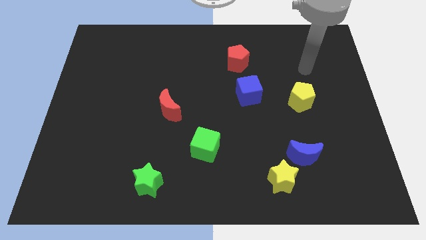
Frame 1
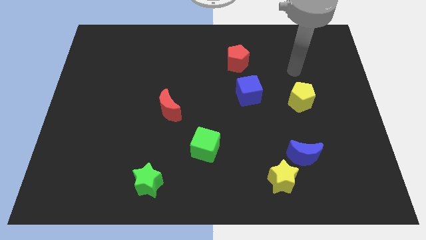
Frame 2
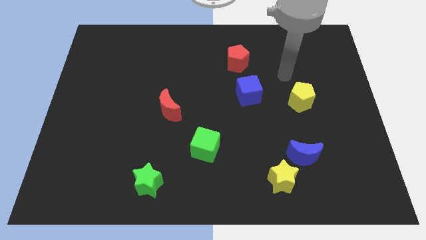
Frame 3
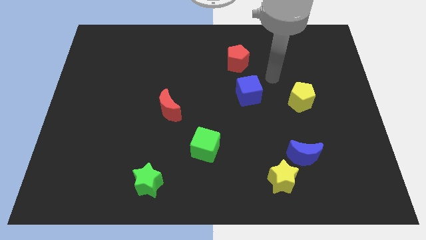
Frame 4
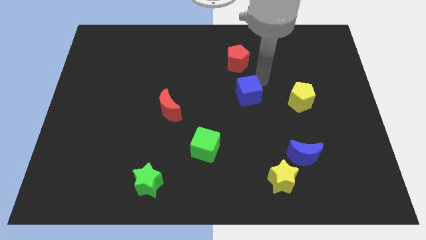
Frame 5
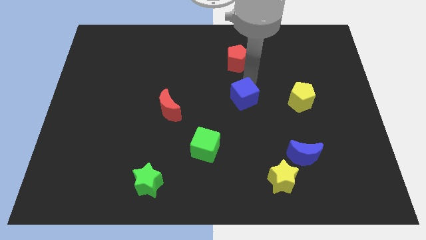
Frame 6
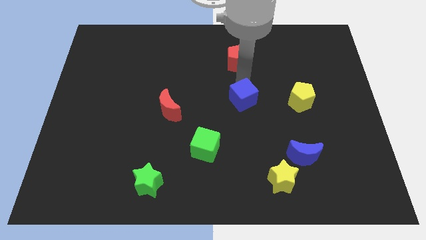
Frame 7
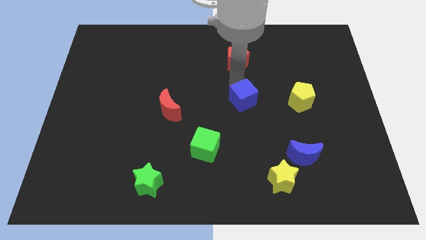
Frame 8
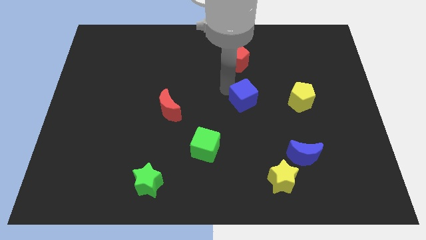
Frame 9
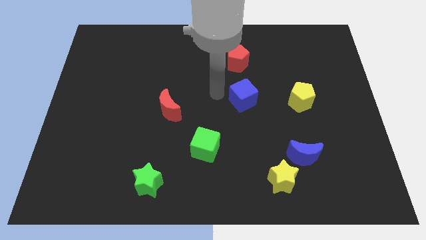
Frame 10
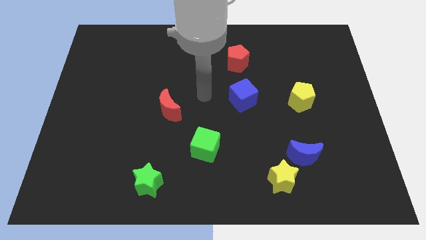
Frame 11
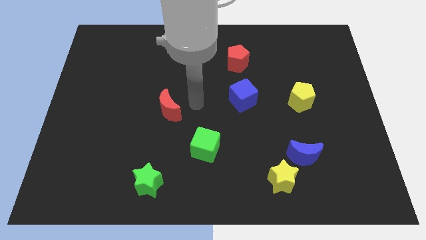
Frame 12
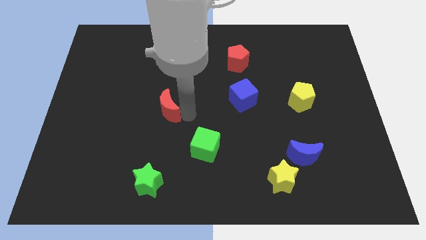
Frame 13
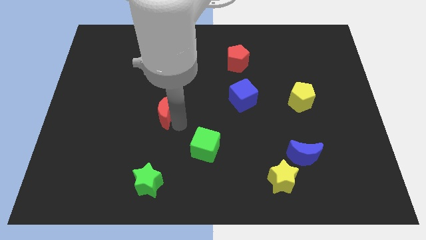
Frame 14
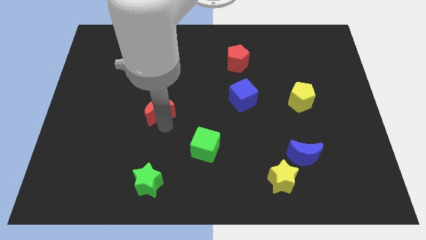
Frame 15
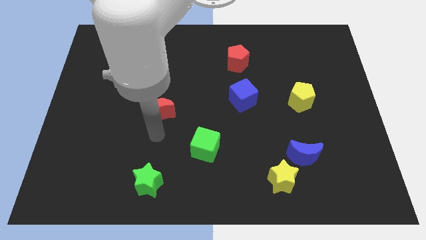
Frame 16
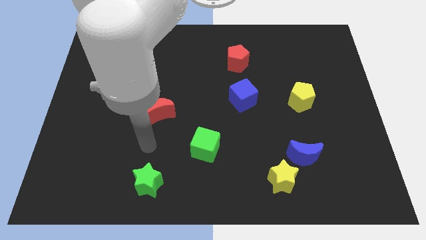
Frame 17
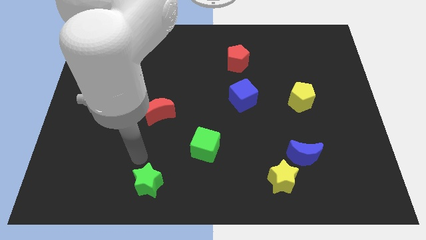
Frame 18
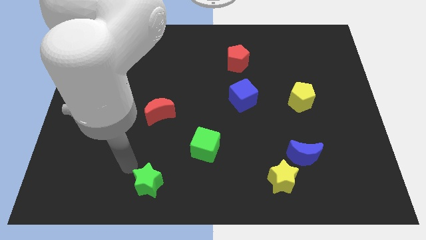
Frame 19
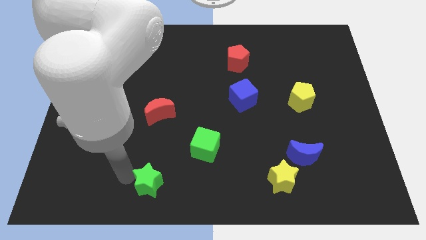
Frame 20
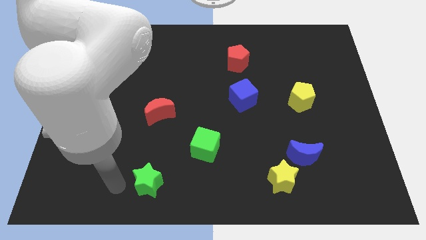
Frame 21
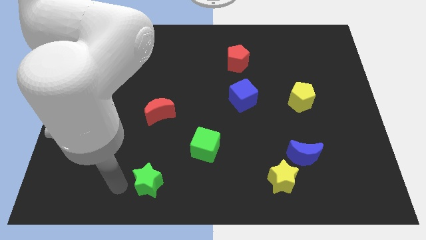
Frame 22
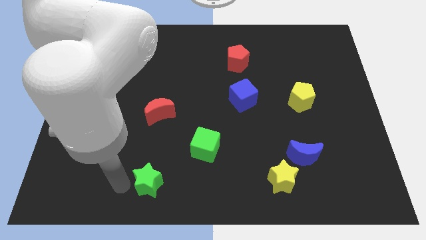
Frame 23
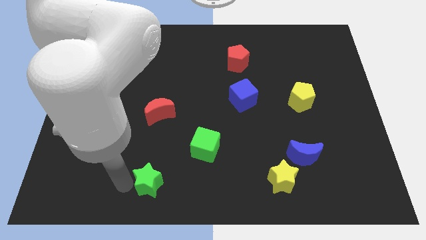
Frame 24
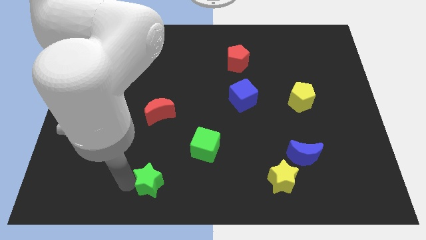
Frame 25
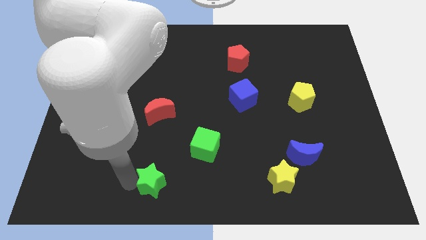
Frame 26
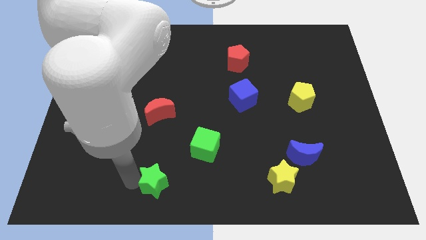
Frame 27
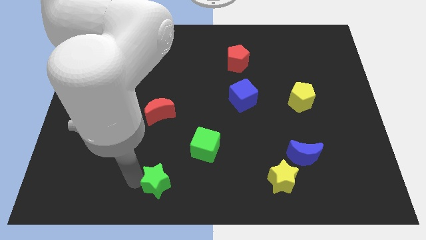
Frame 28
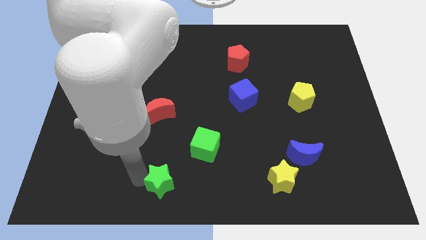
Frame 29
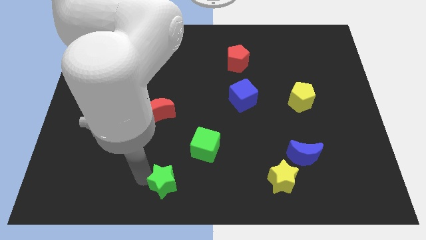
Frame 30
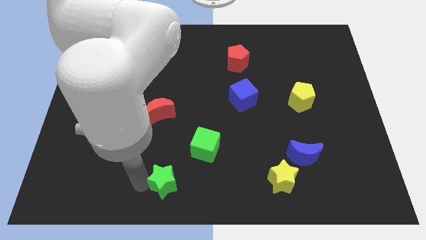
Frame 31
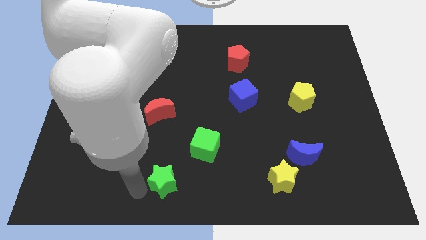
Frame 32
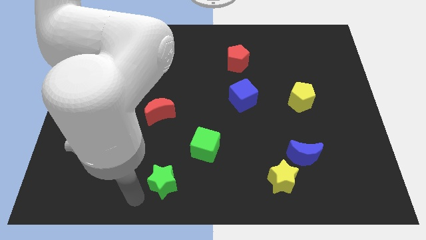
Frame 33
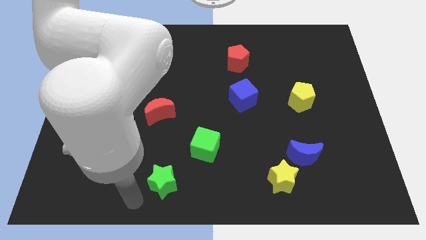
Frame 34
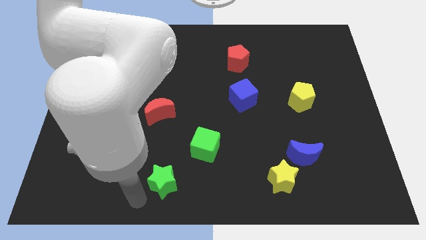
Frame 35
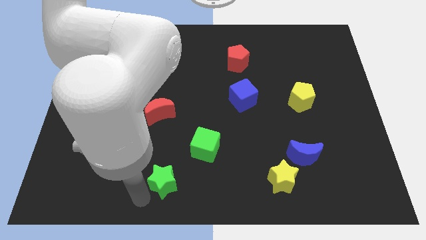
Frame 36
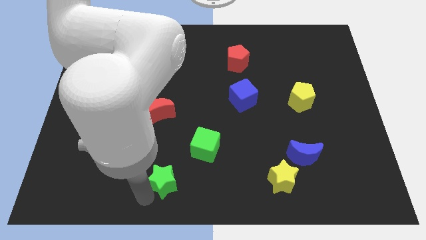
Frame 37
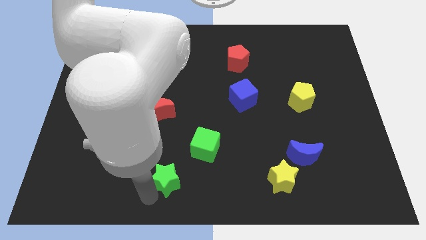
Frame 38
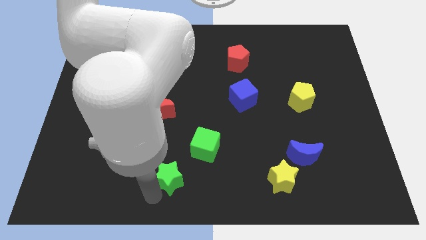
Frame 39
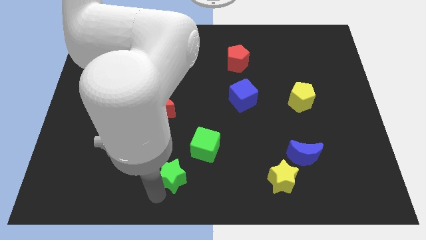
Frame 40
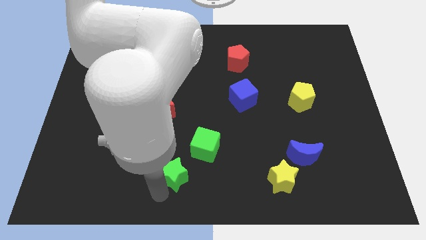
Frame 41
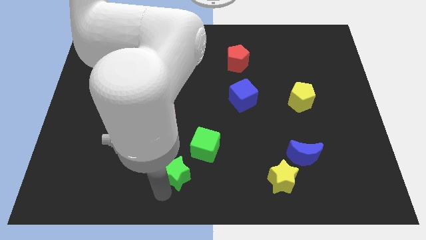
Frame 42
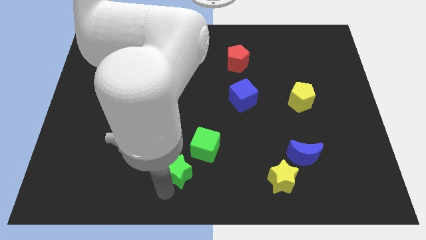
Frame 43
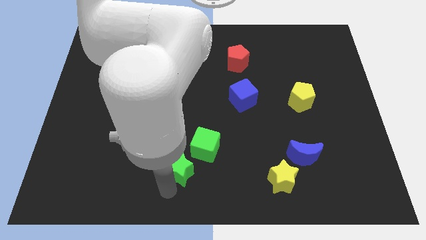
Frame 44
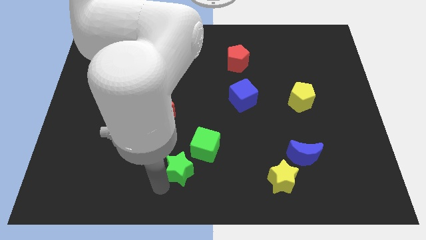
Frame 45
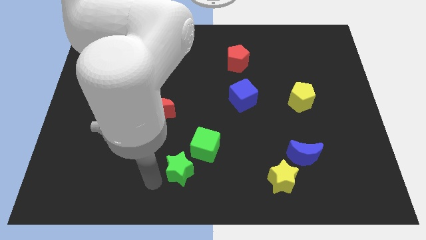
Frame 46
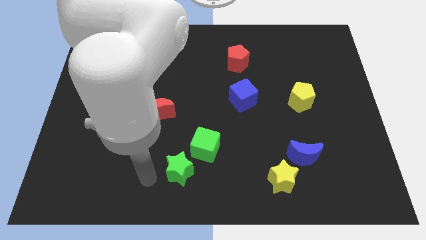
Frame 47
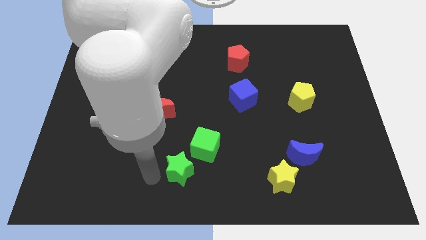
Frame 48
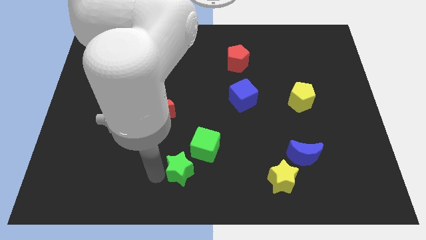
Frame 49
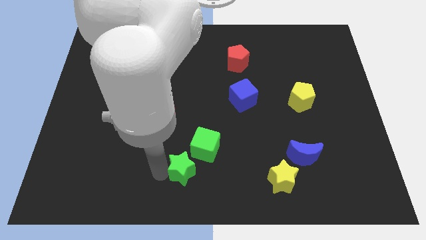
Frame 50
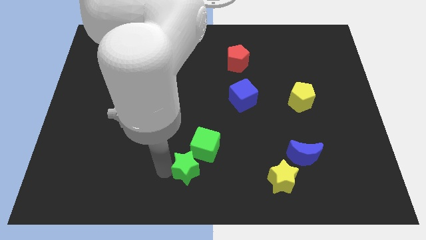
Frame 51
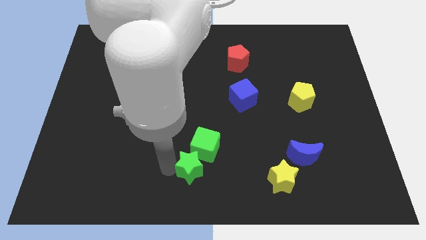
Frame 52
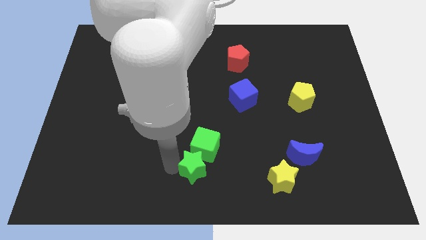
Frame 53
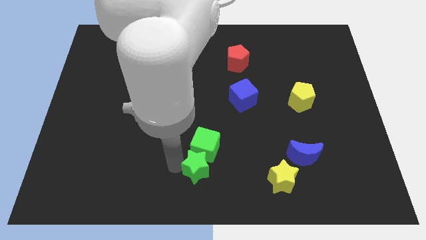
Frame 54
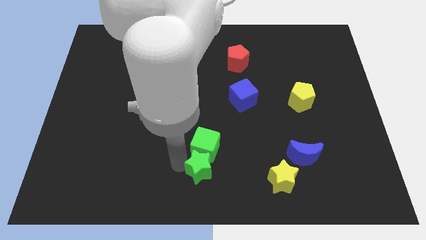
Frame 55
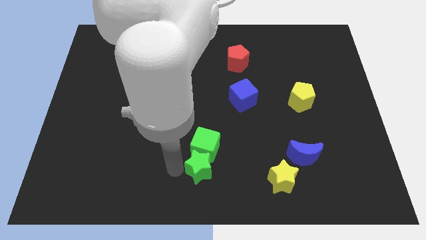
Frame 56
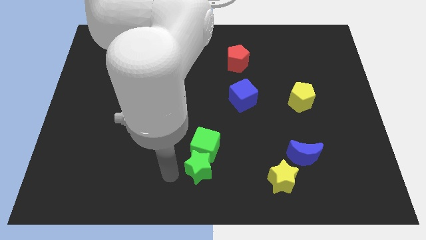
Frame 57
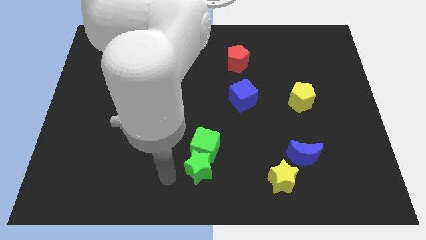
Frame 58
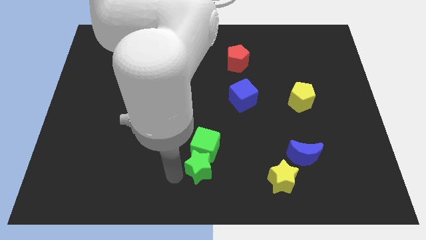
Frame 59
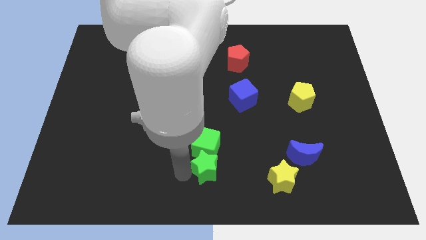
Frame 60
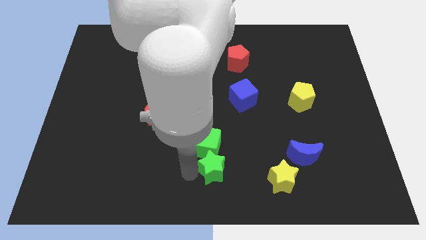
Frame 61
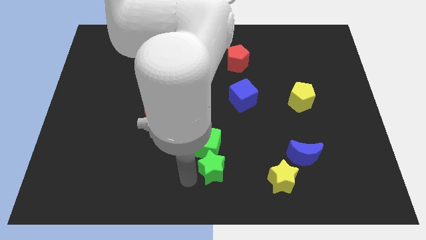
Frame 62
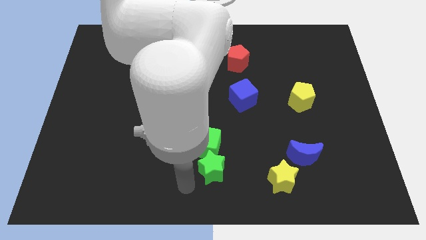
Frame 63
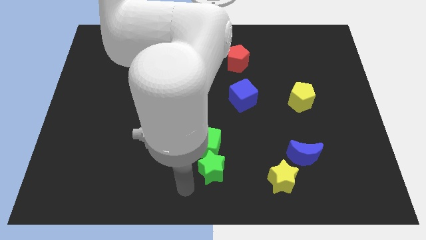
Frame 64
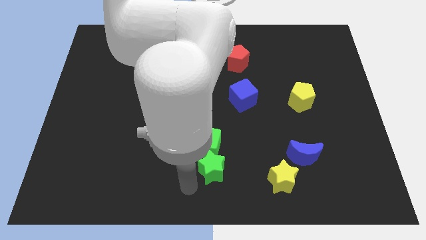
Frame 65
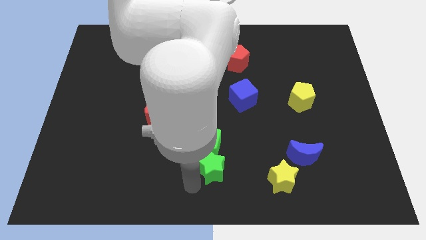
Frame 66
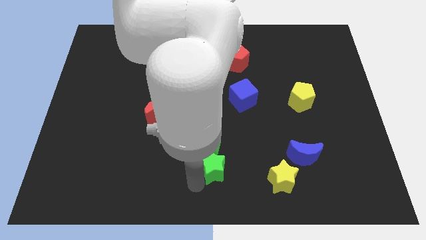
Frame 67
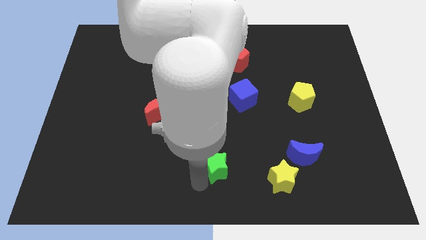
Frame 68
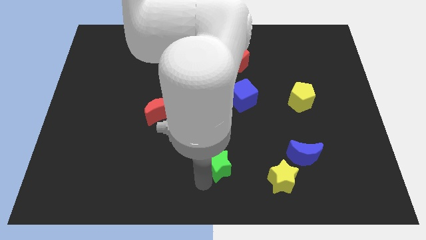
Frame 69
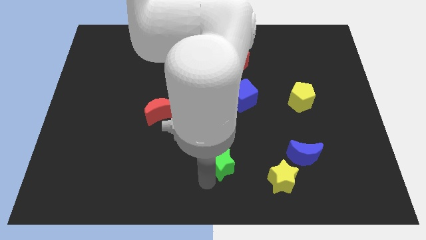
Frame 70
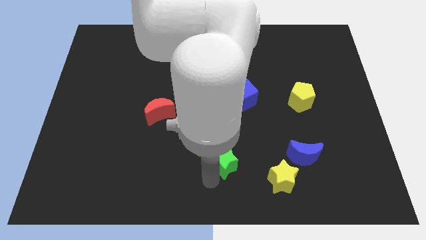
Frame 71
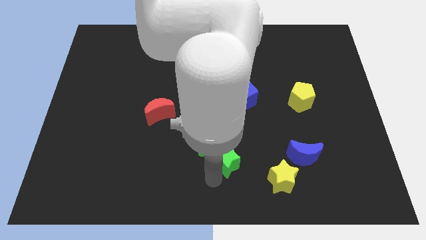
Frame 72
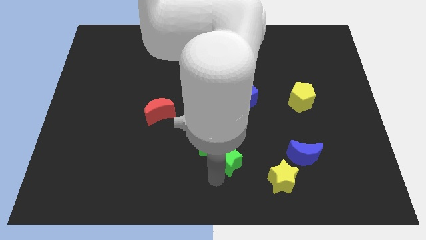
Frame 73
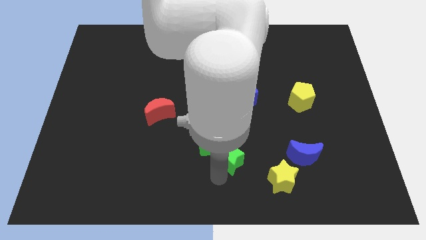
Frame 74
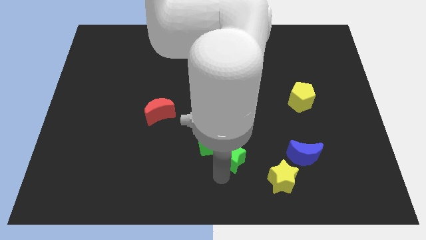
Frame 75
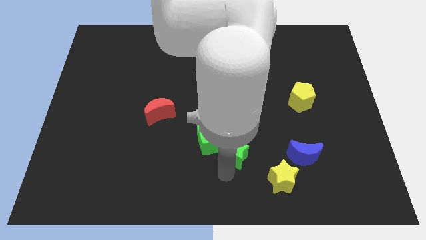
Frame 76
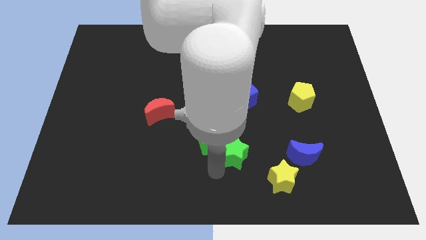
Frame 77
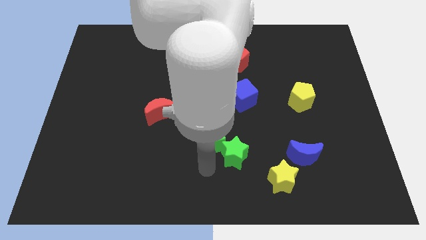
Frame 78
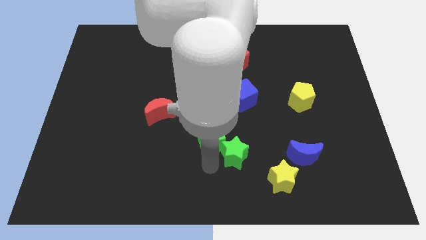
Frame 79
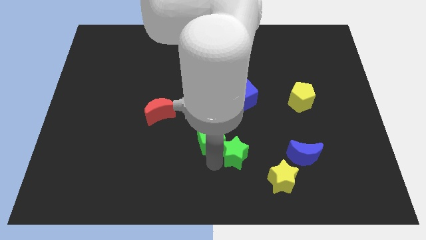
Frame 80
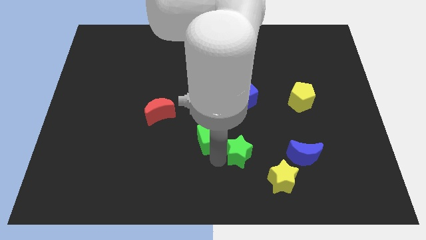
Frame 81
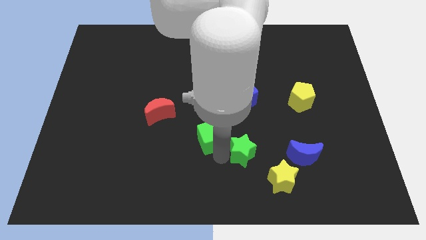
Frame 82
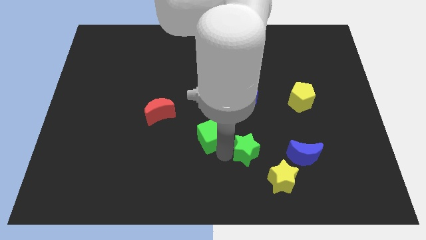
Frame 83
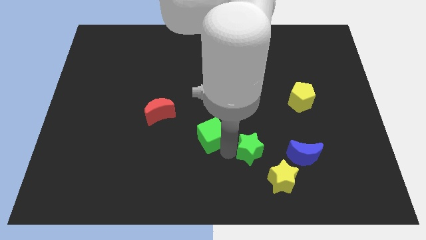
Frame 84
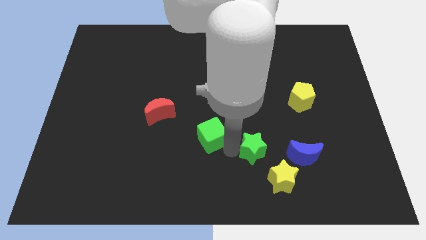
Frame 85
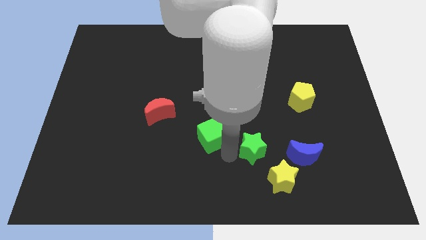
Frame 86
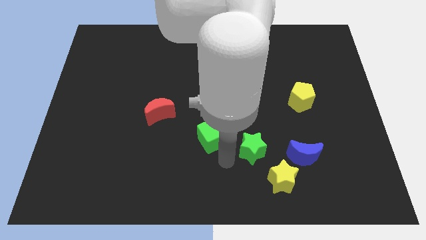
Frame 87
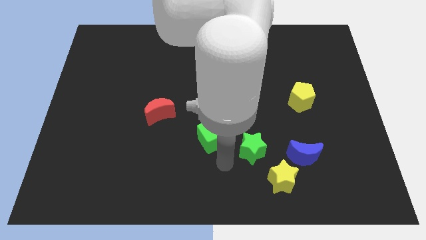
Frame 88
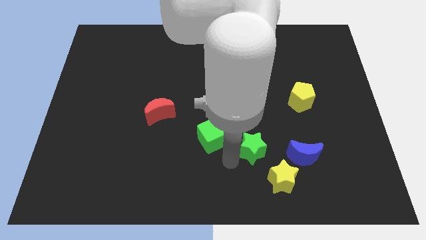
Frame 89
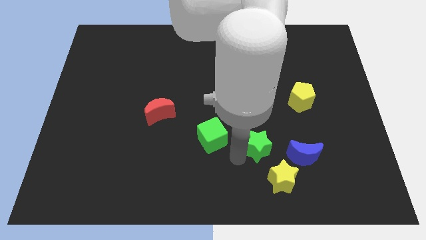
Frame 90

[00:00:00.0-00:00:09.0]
put the green star above the yellow star
